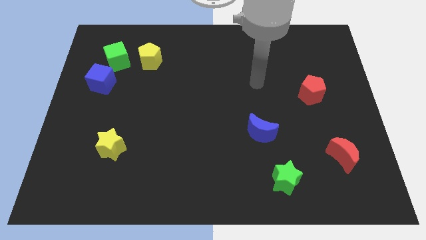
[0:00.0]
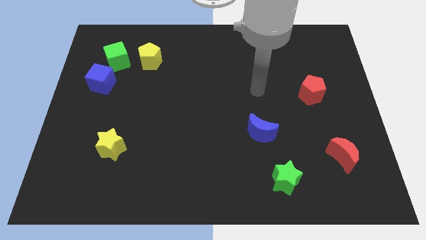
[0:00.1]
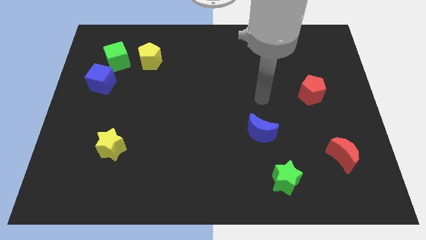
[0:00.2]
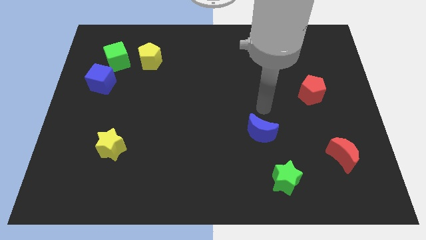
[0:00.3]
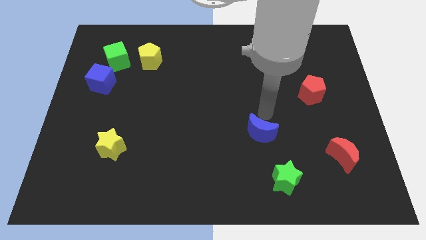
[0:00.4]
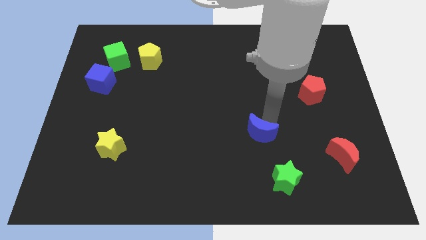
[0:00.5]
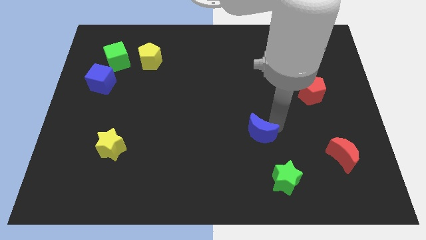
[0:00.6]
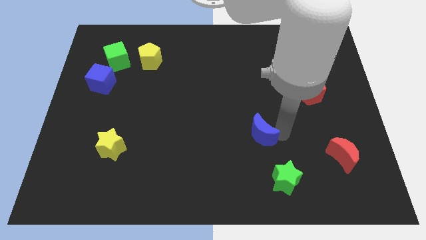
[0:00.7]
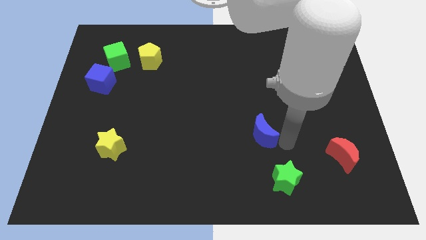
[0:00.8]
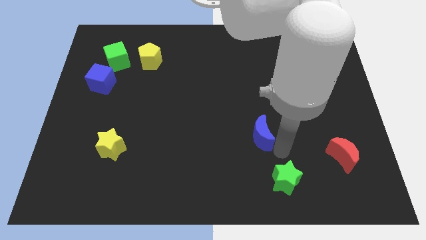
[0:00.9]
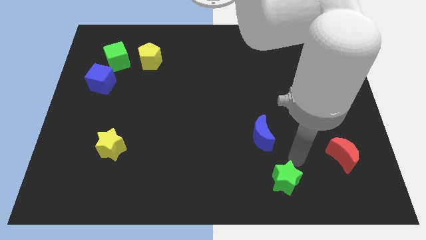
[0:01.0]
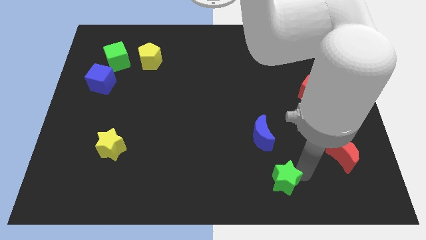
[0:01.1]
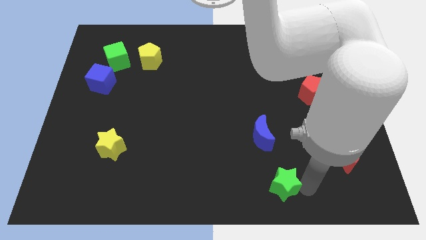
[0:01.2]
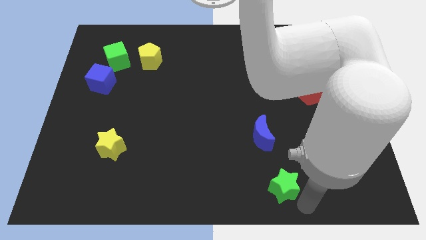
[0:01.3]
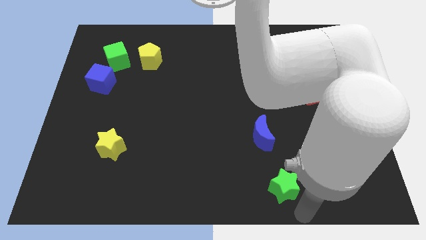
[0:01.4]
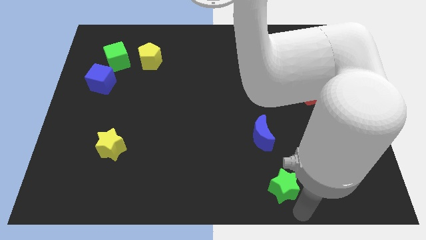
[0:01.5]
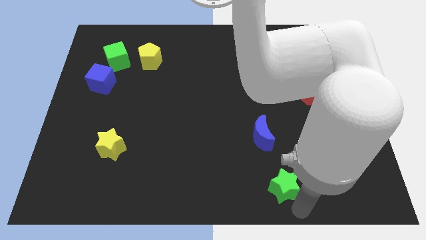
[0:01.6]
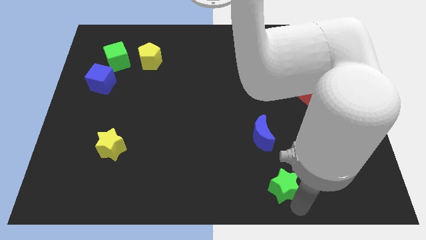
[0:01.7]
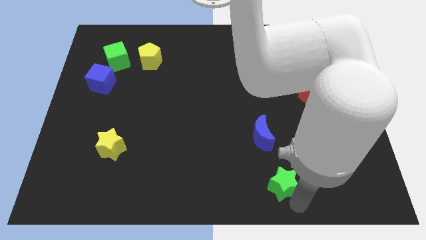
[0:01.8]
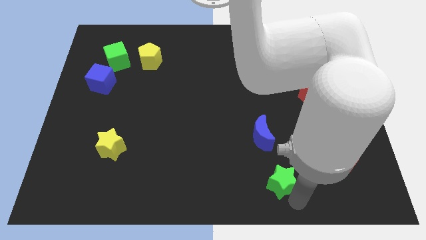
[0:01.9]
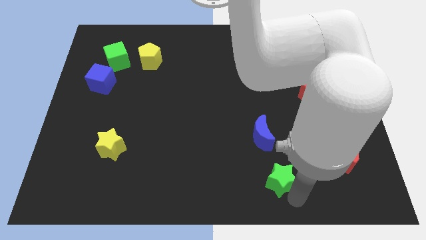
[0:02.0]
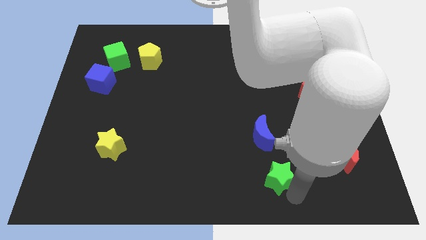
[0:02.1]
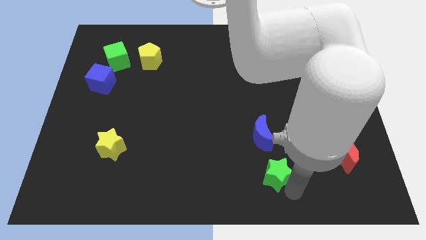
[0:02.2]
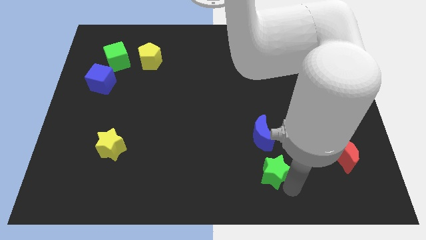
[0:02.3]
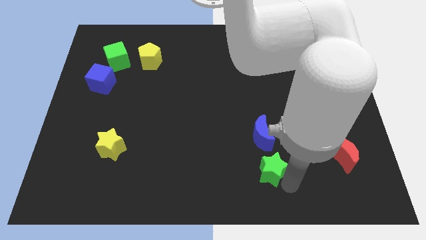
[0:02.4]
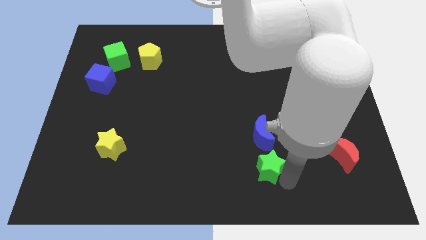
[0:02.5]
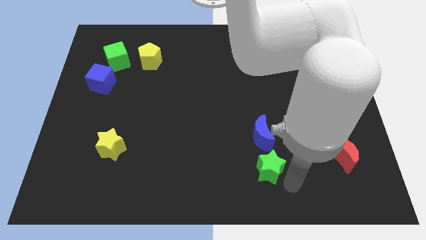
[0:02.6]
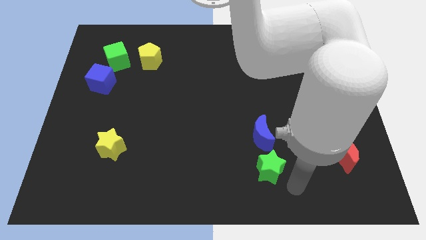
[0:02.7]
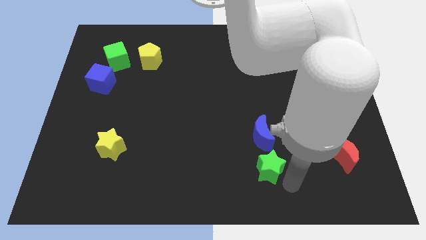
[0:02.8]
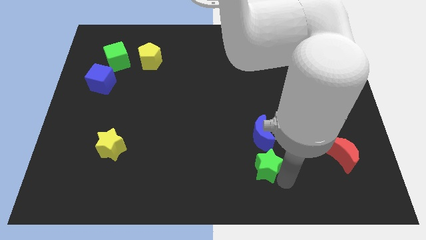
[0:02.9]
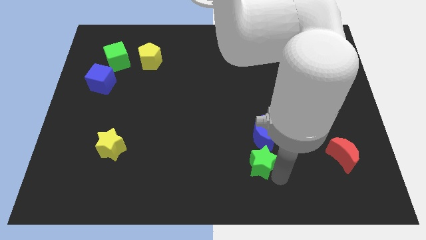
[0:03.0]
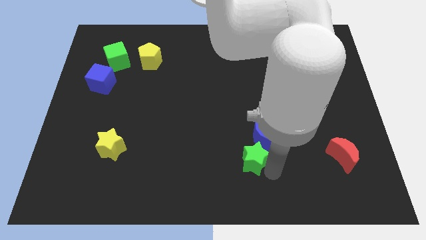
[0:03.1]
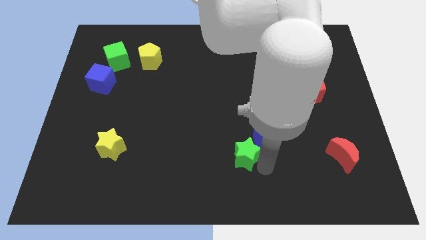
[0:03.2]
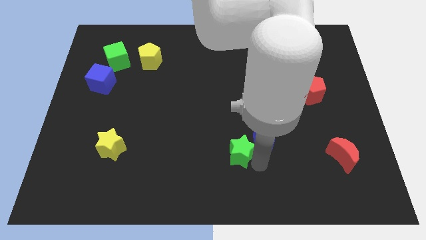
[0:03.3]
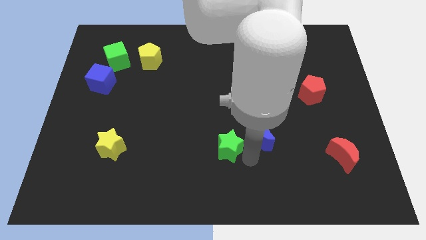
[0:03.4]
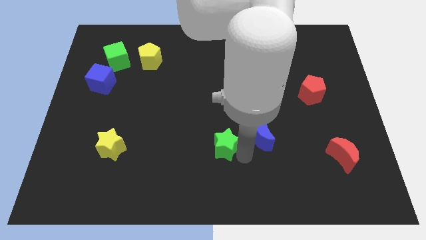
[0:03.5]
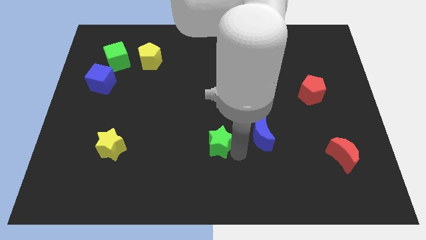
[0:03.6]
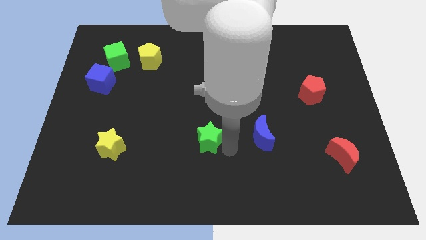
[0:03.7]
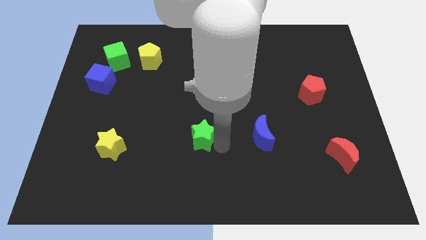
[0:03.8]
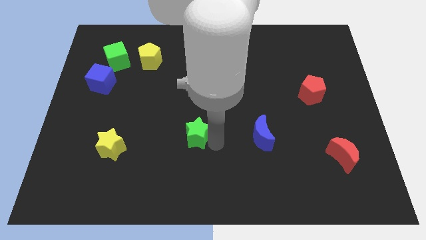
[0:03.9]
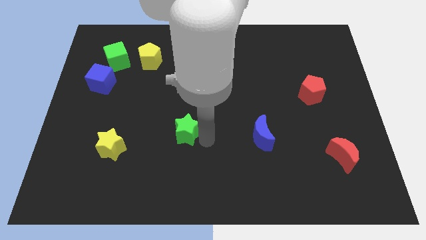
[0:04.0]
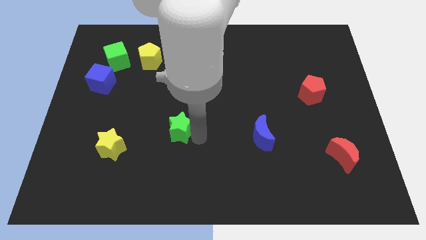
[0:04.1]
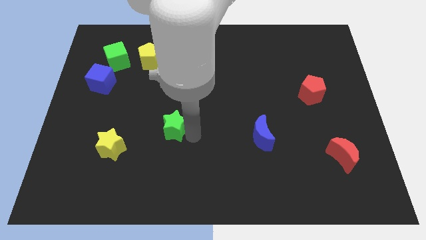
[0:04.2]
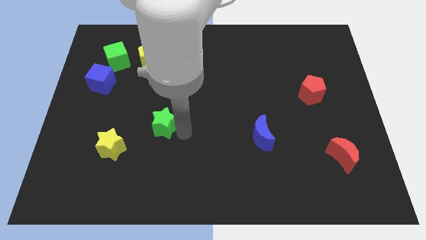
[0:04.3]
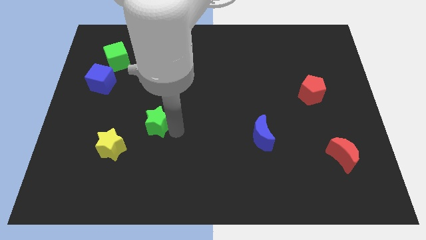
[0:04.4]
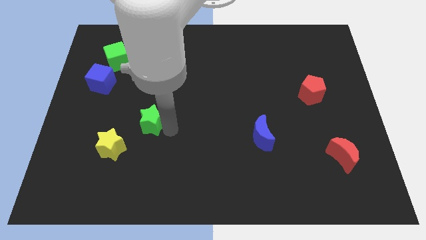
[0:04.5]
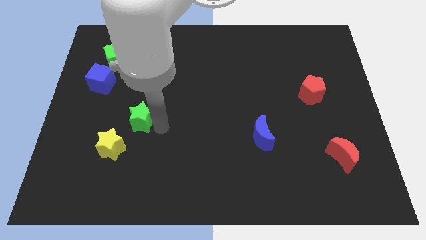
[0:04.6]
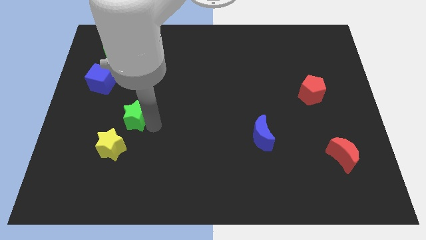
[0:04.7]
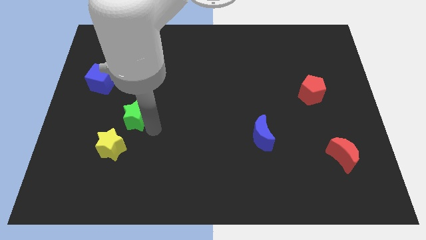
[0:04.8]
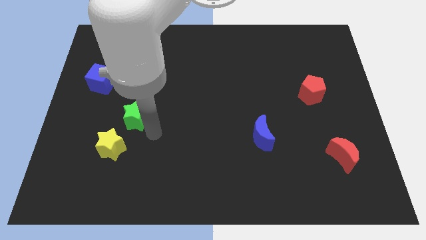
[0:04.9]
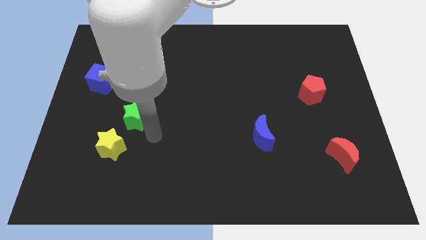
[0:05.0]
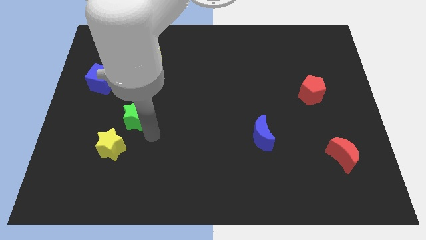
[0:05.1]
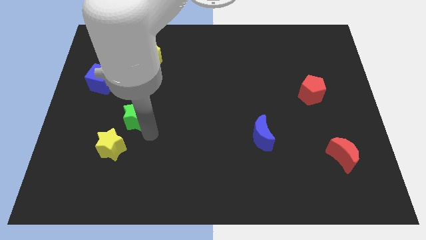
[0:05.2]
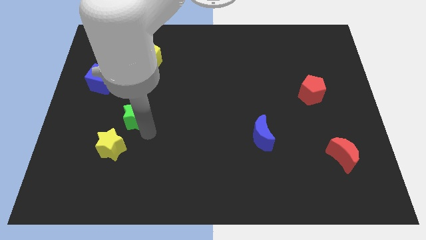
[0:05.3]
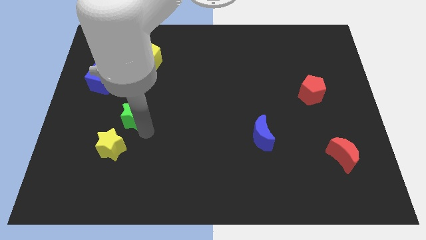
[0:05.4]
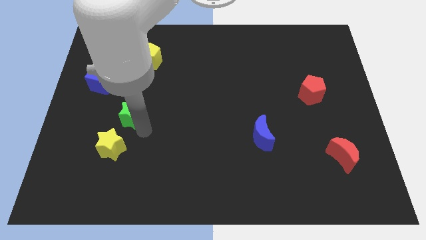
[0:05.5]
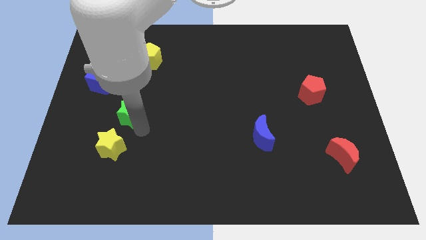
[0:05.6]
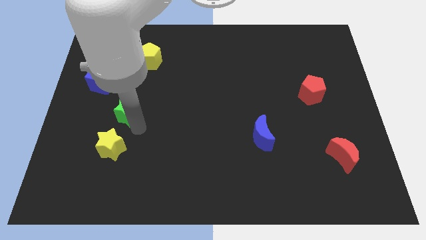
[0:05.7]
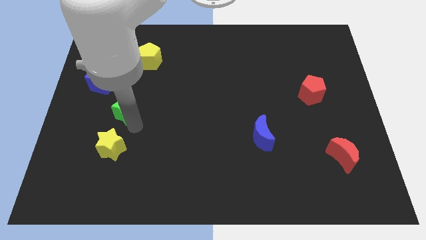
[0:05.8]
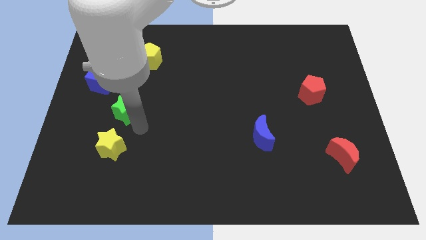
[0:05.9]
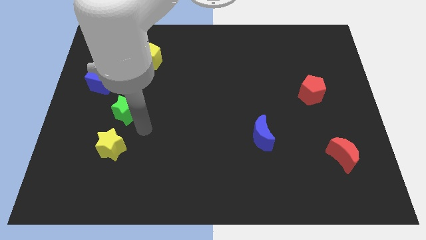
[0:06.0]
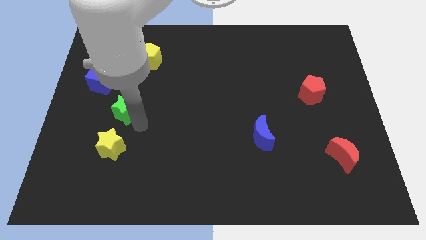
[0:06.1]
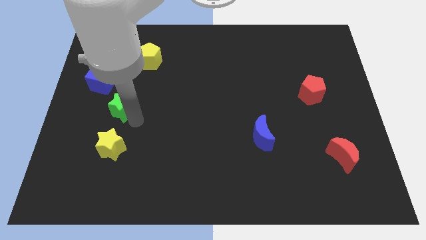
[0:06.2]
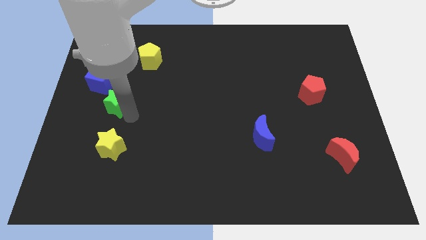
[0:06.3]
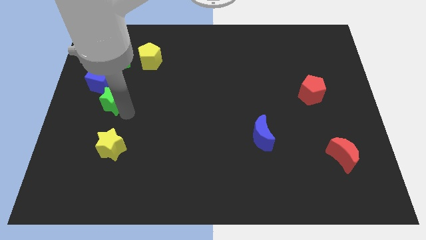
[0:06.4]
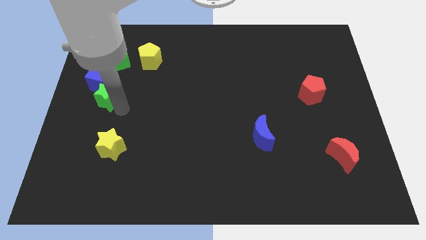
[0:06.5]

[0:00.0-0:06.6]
slide the green star towards the blue cube

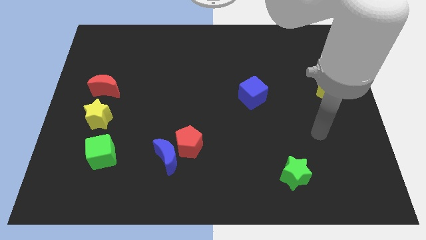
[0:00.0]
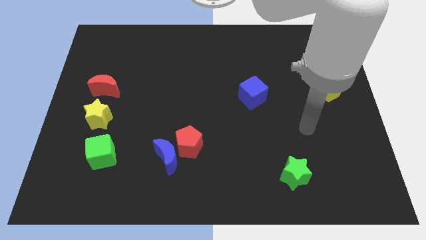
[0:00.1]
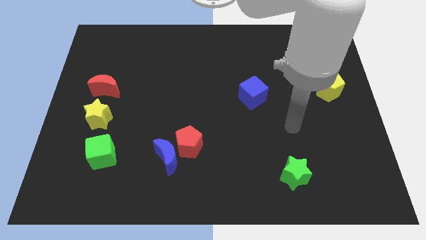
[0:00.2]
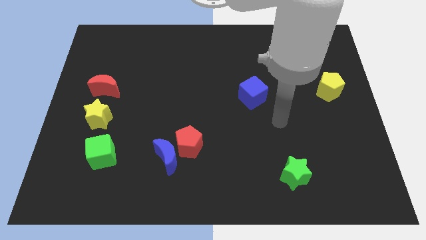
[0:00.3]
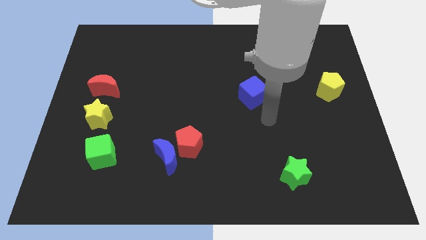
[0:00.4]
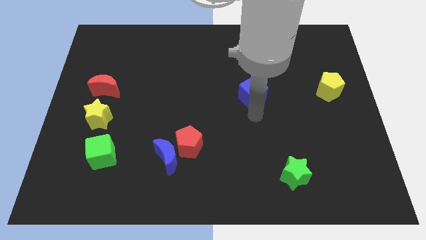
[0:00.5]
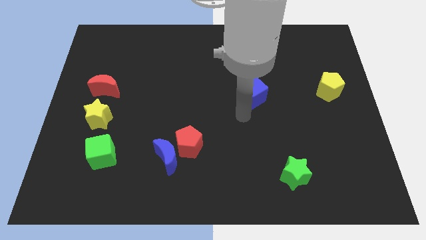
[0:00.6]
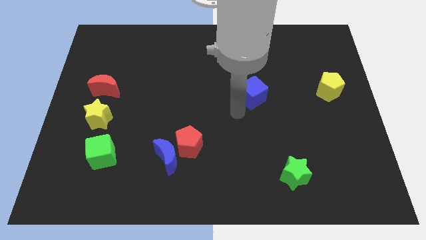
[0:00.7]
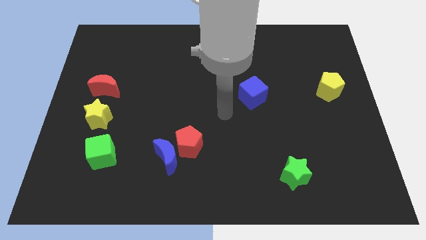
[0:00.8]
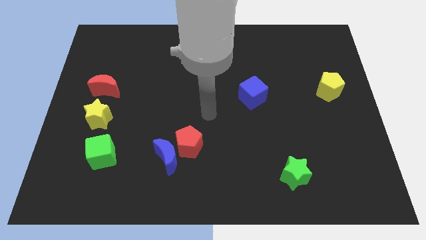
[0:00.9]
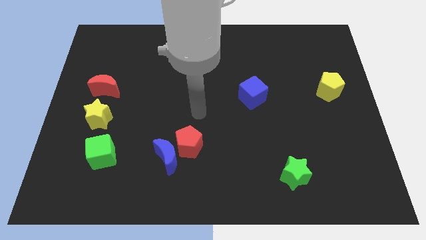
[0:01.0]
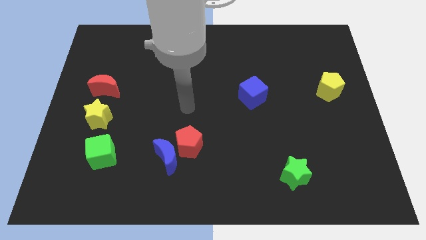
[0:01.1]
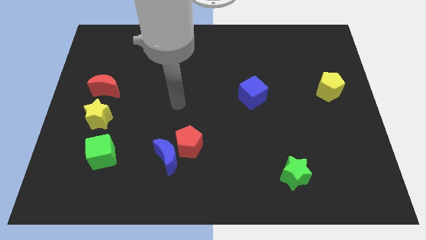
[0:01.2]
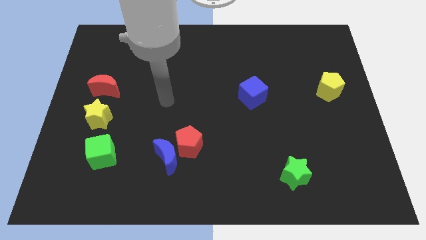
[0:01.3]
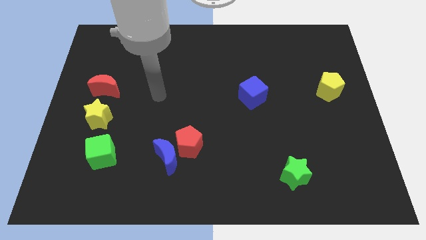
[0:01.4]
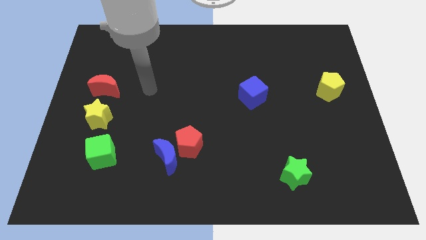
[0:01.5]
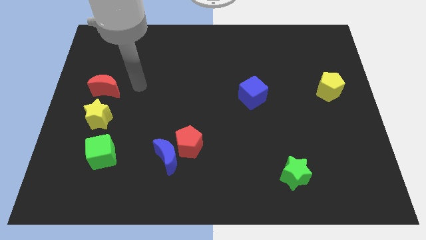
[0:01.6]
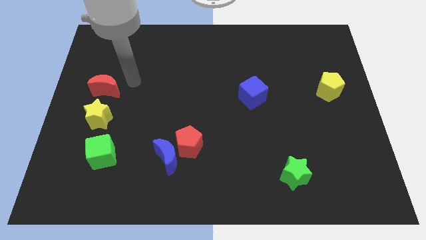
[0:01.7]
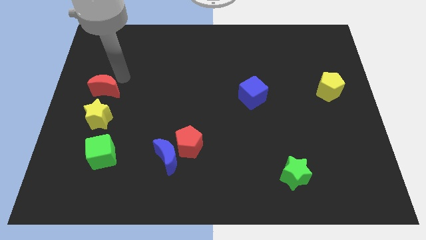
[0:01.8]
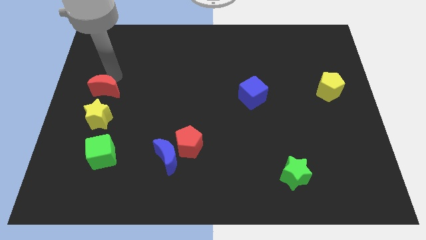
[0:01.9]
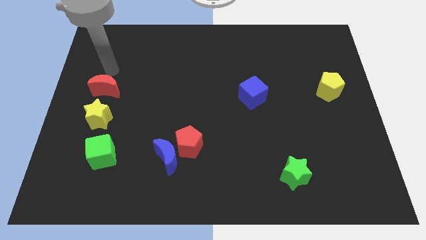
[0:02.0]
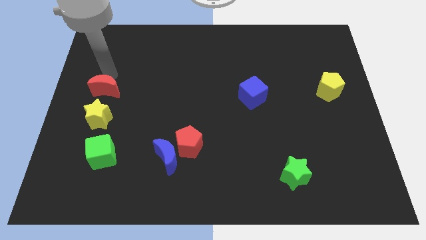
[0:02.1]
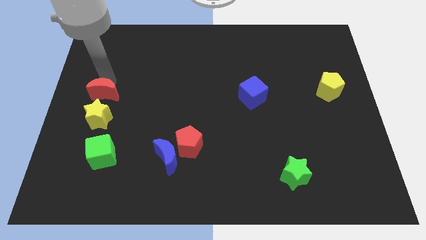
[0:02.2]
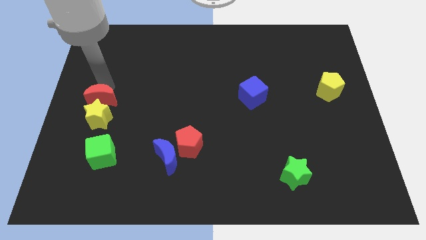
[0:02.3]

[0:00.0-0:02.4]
put the red moon close to the yellow star
